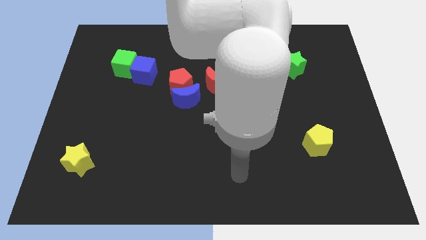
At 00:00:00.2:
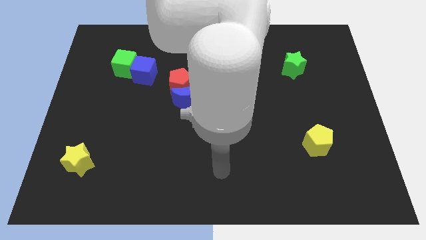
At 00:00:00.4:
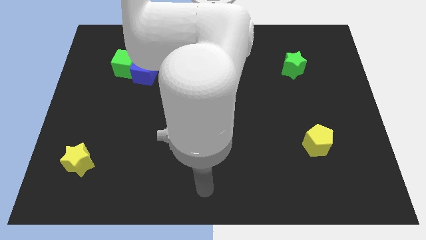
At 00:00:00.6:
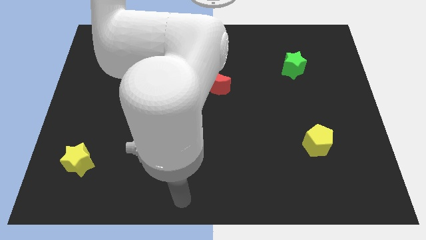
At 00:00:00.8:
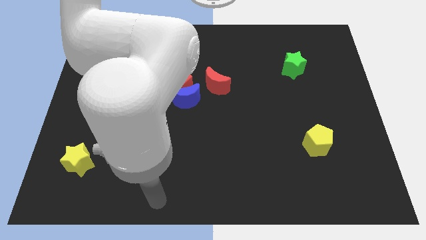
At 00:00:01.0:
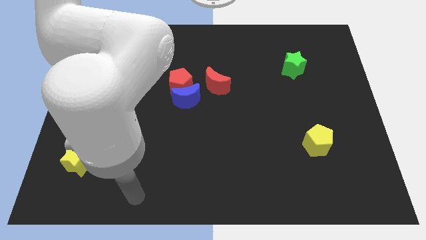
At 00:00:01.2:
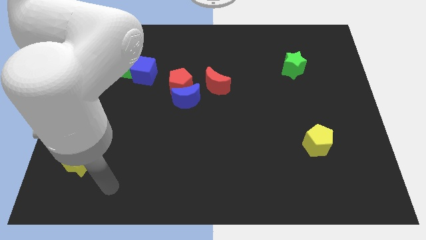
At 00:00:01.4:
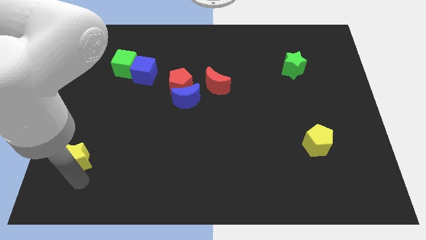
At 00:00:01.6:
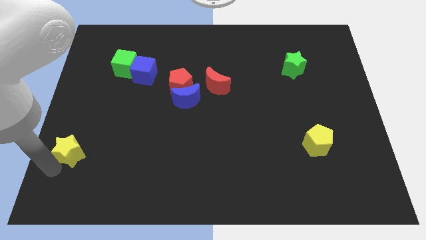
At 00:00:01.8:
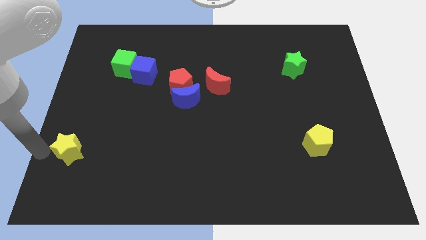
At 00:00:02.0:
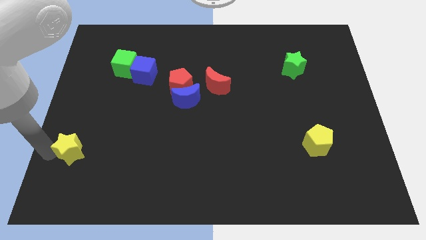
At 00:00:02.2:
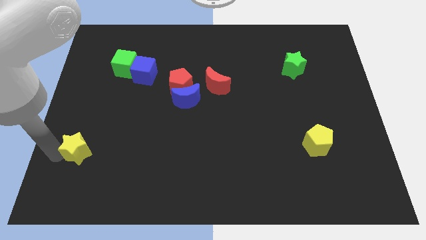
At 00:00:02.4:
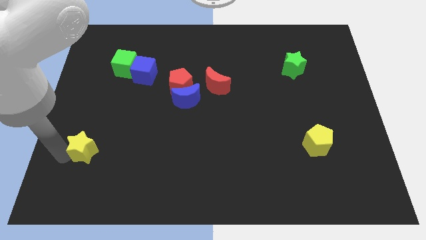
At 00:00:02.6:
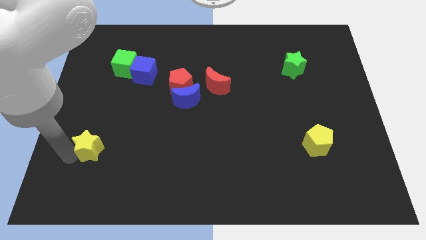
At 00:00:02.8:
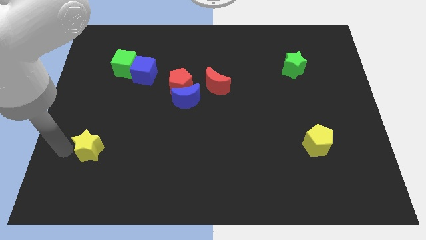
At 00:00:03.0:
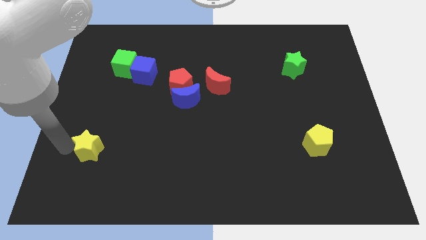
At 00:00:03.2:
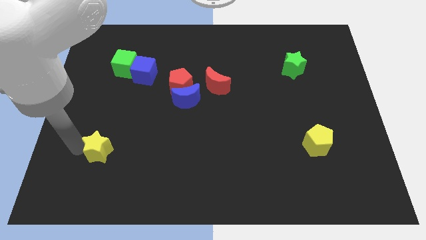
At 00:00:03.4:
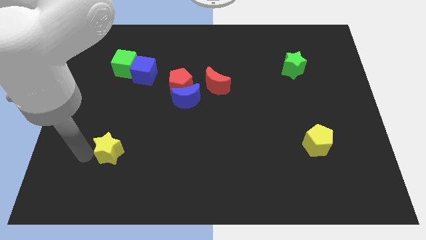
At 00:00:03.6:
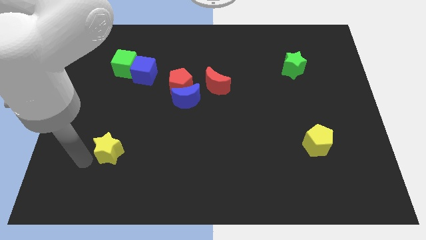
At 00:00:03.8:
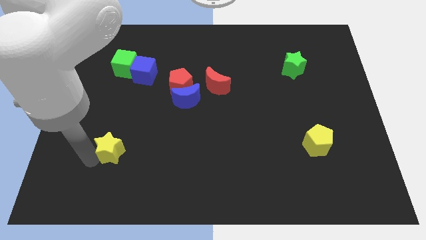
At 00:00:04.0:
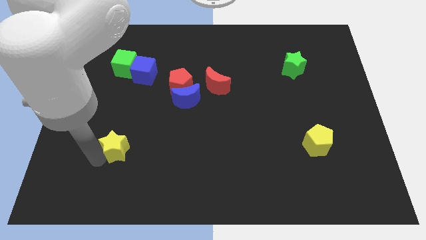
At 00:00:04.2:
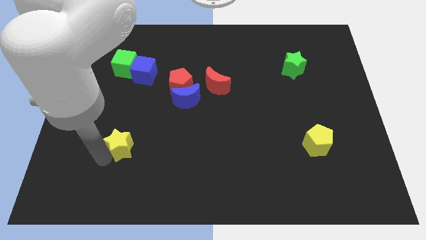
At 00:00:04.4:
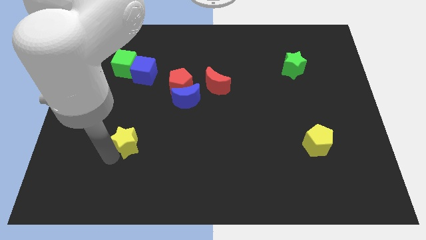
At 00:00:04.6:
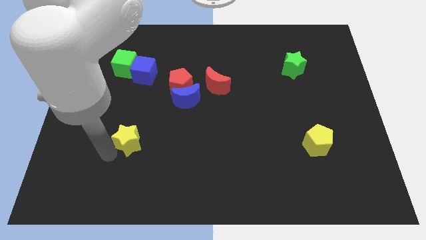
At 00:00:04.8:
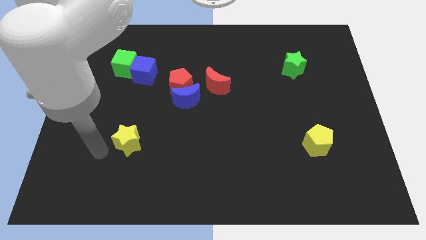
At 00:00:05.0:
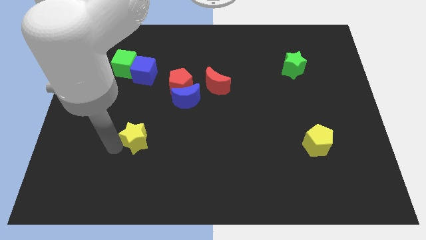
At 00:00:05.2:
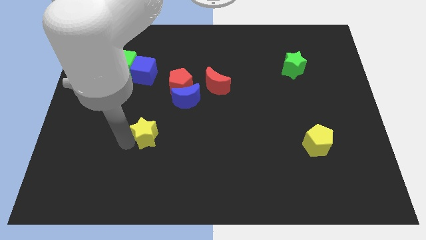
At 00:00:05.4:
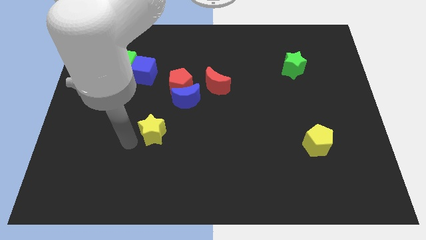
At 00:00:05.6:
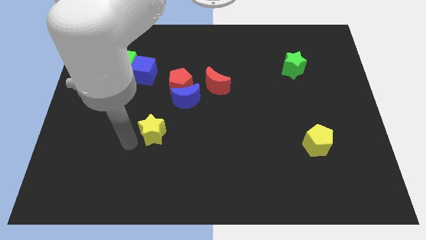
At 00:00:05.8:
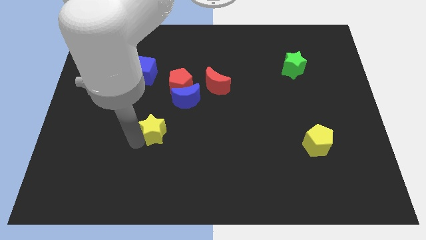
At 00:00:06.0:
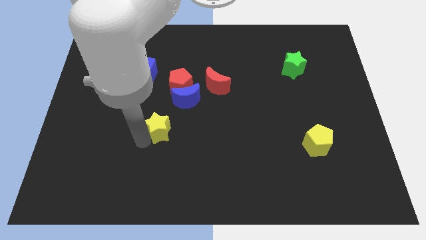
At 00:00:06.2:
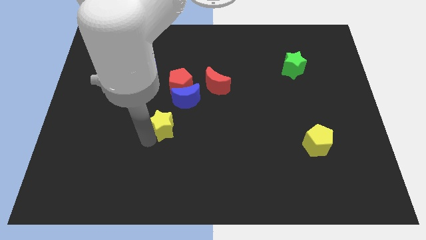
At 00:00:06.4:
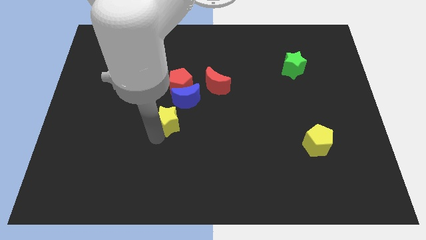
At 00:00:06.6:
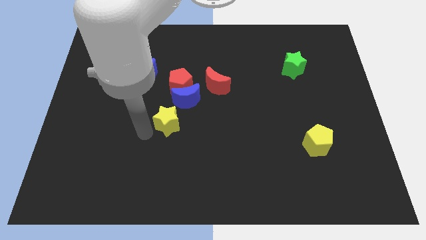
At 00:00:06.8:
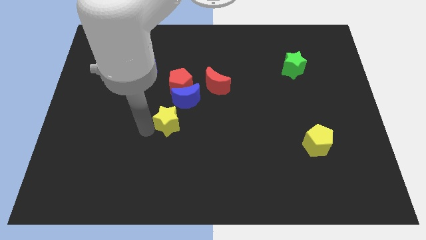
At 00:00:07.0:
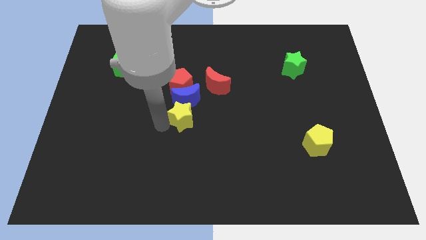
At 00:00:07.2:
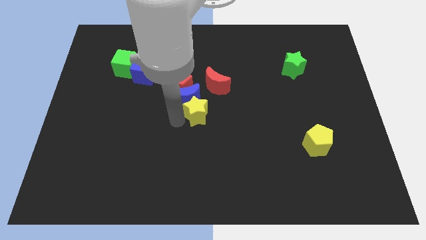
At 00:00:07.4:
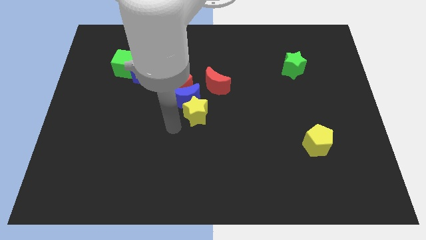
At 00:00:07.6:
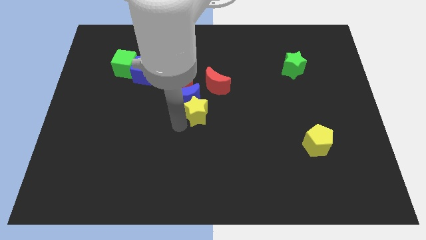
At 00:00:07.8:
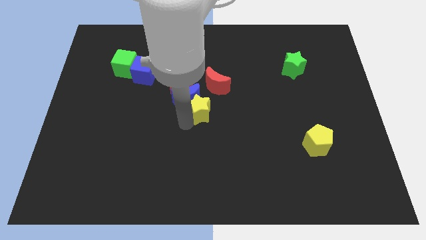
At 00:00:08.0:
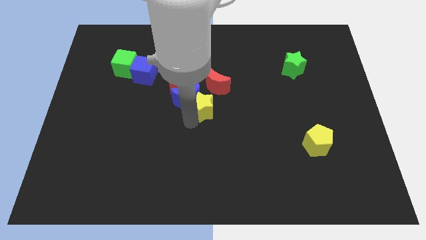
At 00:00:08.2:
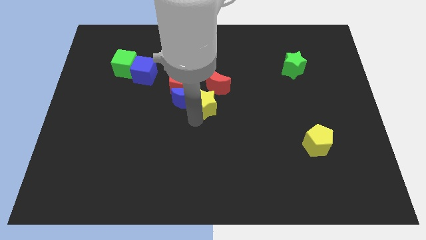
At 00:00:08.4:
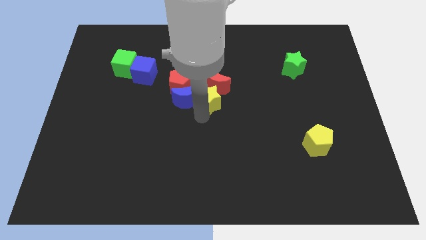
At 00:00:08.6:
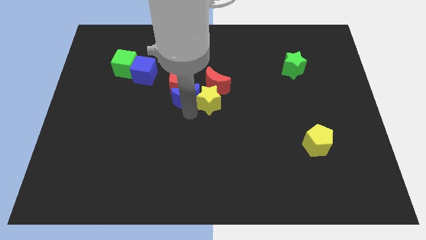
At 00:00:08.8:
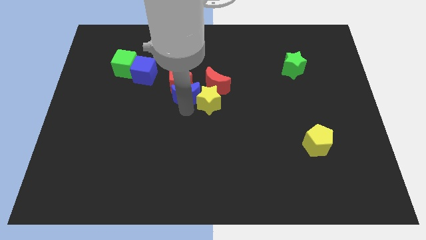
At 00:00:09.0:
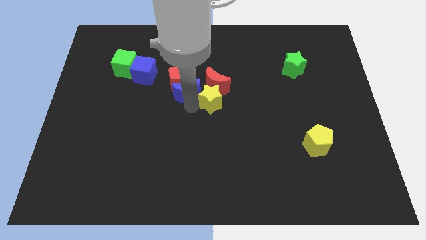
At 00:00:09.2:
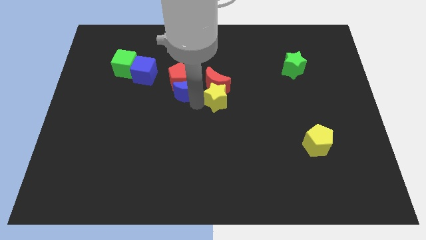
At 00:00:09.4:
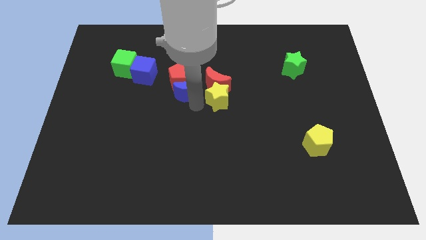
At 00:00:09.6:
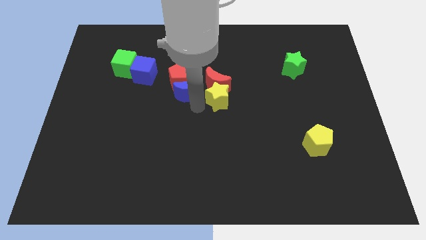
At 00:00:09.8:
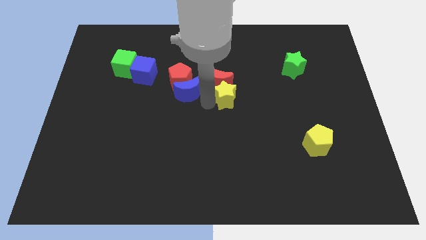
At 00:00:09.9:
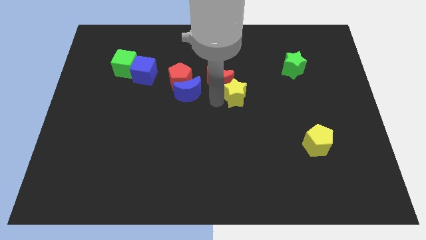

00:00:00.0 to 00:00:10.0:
push the yellow star just right of the red moon

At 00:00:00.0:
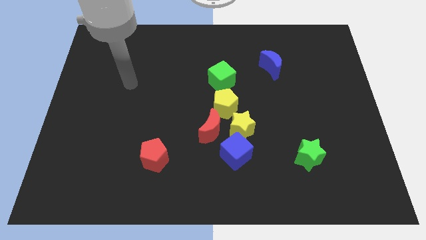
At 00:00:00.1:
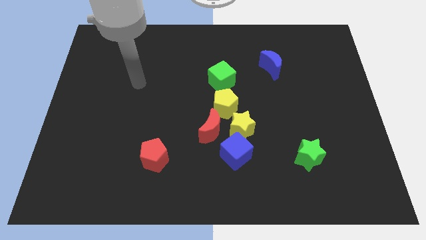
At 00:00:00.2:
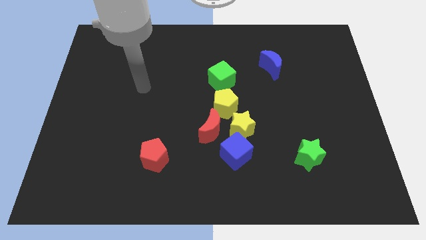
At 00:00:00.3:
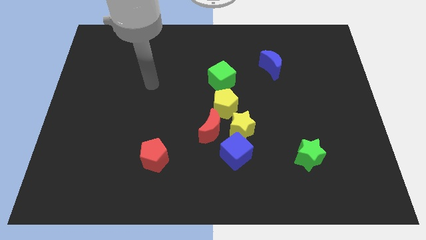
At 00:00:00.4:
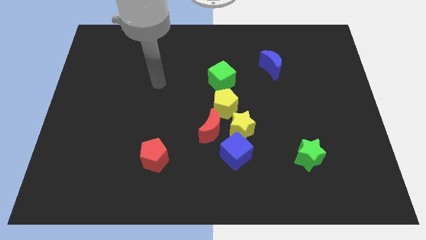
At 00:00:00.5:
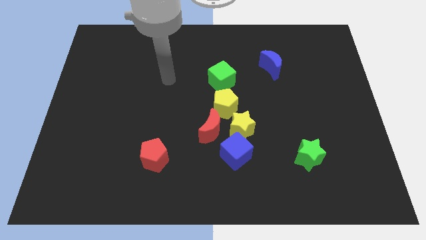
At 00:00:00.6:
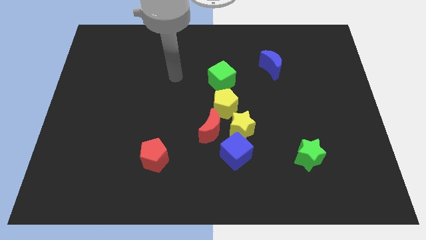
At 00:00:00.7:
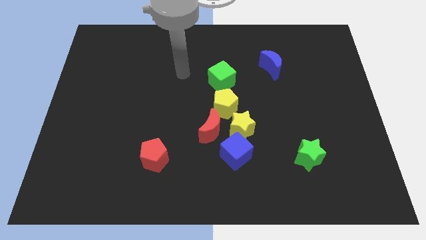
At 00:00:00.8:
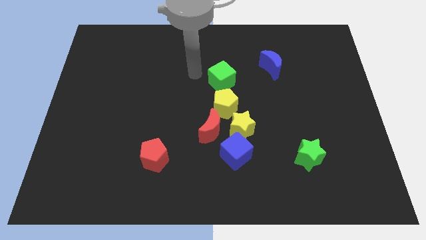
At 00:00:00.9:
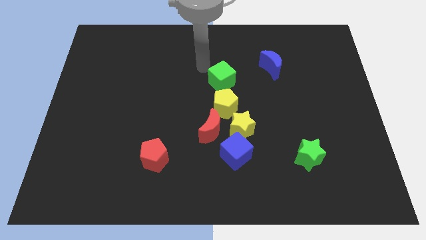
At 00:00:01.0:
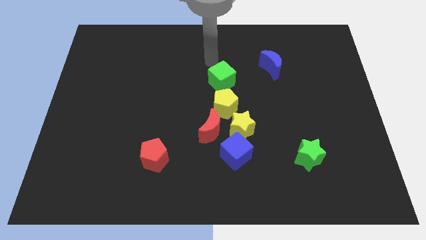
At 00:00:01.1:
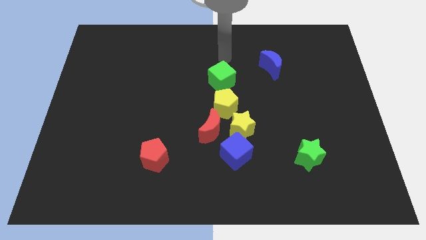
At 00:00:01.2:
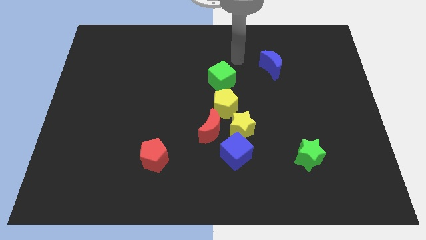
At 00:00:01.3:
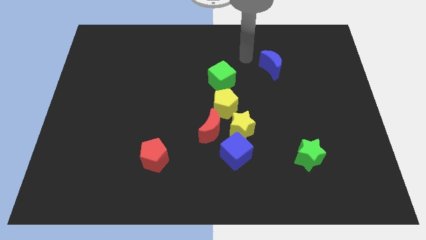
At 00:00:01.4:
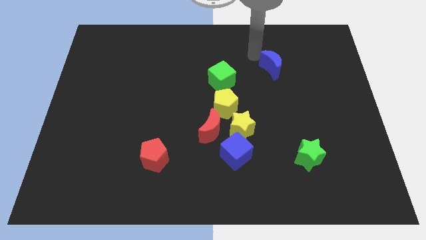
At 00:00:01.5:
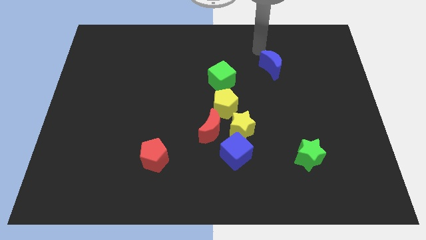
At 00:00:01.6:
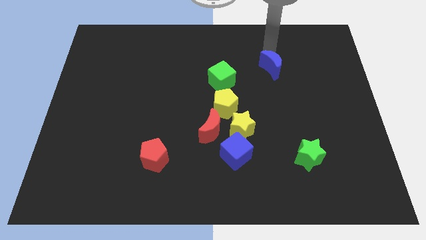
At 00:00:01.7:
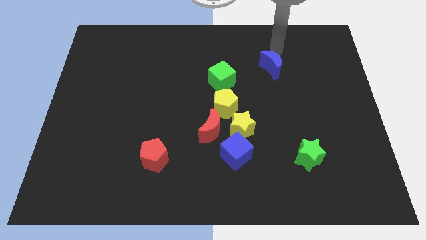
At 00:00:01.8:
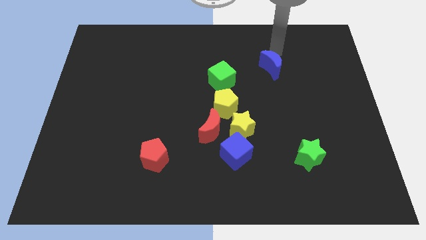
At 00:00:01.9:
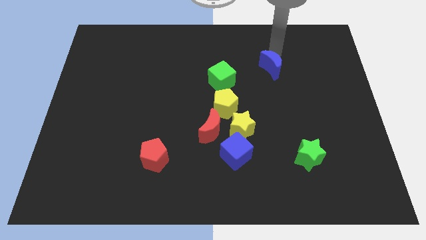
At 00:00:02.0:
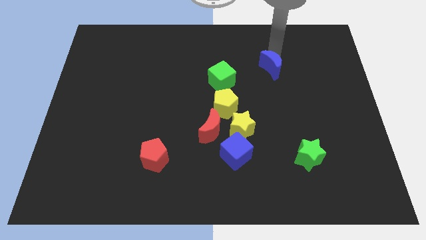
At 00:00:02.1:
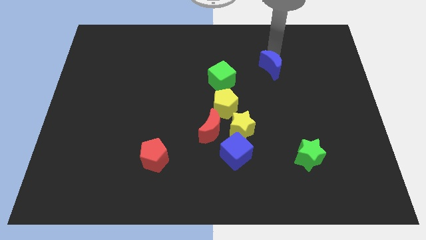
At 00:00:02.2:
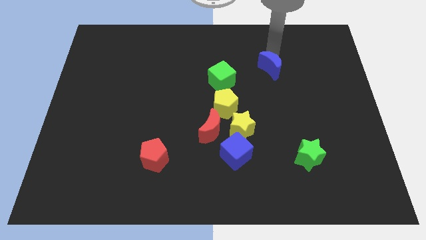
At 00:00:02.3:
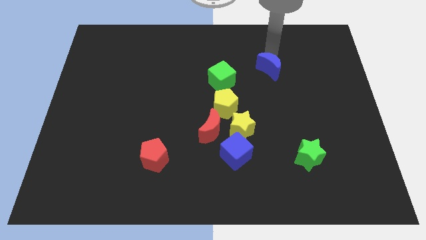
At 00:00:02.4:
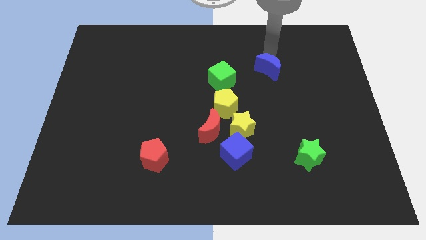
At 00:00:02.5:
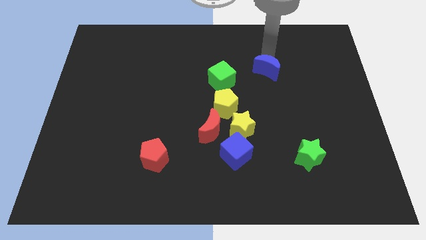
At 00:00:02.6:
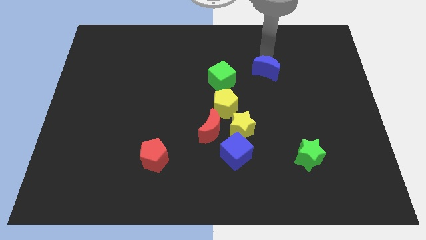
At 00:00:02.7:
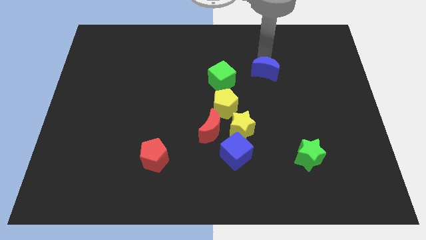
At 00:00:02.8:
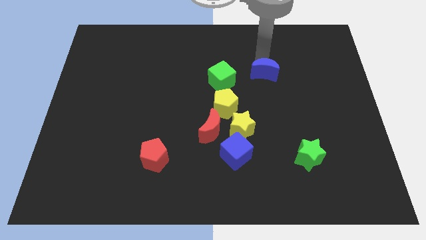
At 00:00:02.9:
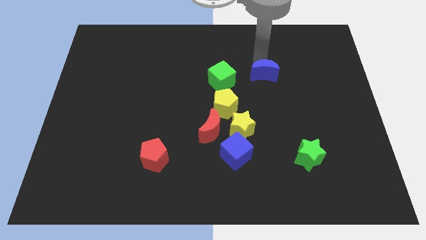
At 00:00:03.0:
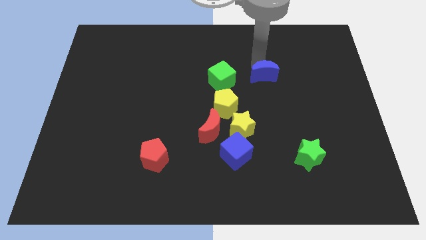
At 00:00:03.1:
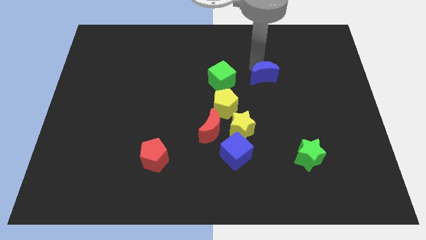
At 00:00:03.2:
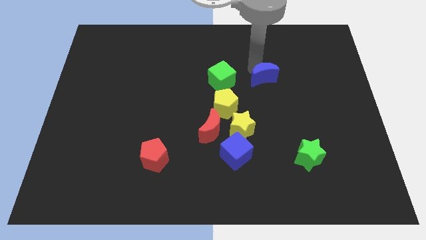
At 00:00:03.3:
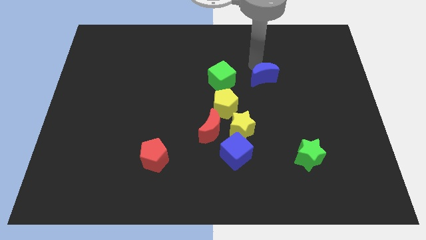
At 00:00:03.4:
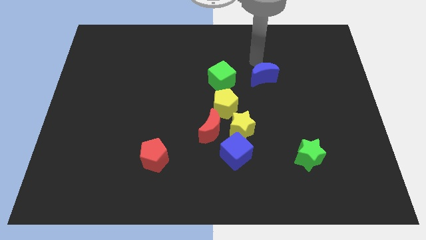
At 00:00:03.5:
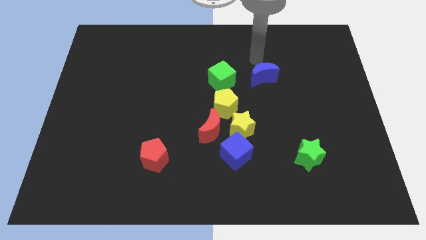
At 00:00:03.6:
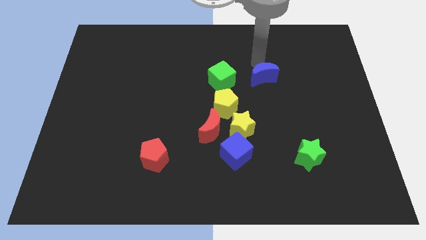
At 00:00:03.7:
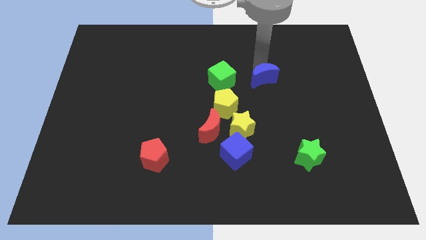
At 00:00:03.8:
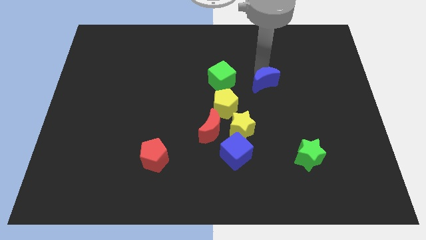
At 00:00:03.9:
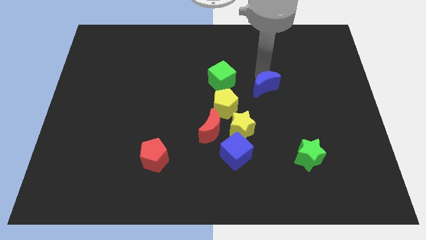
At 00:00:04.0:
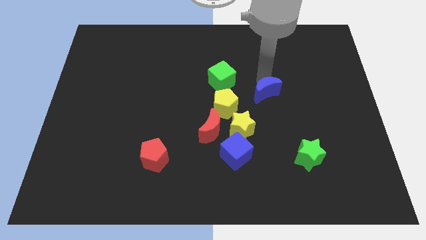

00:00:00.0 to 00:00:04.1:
push the blue moon to the right of the yellow pentagon
